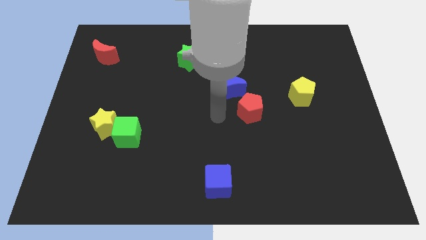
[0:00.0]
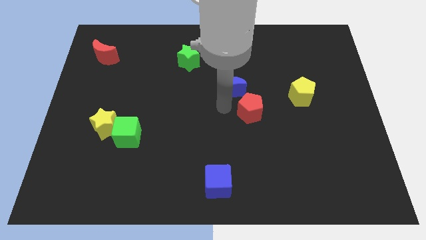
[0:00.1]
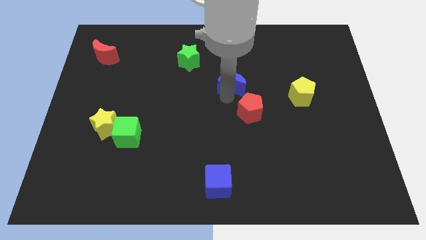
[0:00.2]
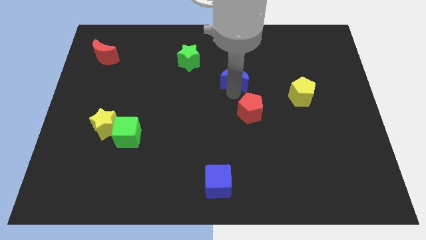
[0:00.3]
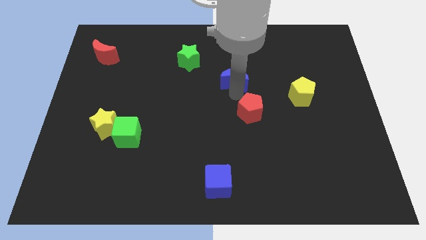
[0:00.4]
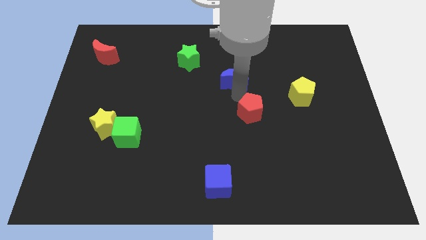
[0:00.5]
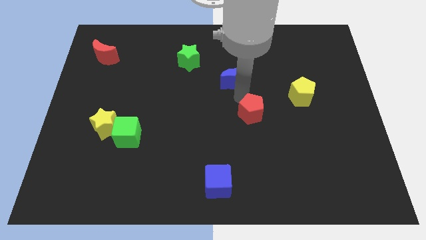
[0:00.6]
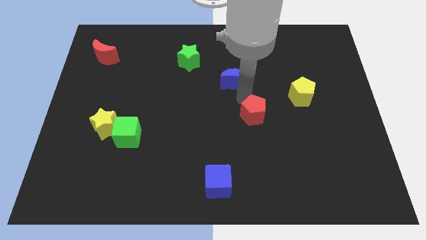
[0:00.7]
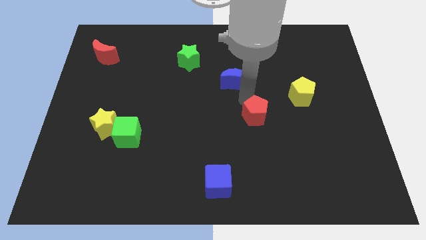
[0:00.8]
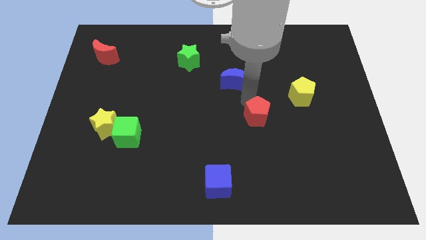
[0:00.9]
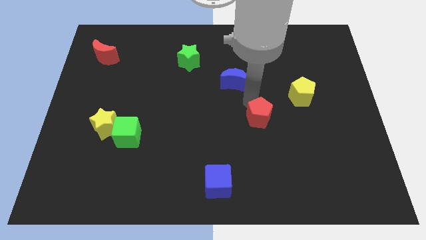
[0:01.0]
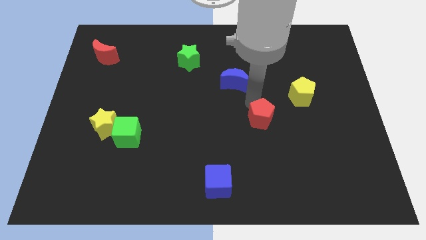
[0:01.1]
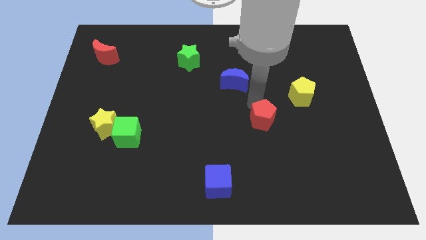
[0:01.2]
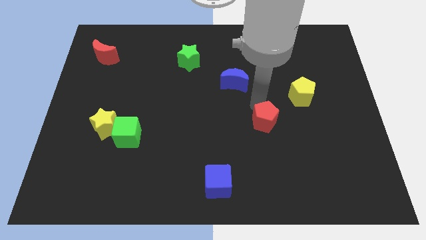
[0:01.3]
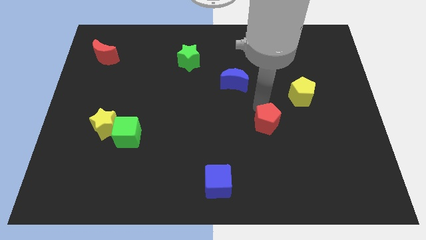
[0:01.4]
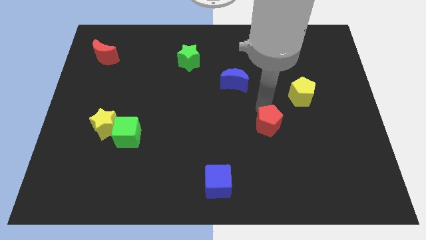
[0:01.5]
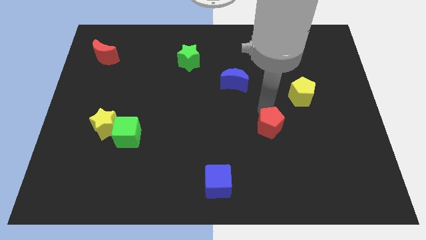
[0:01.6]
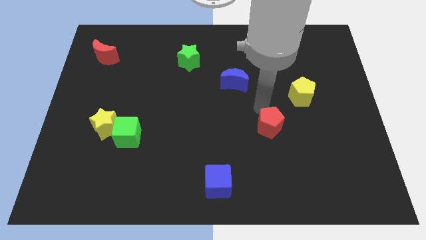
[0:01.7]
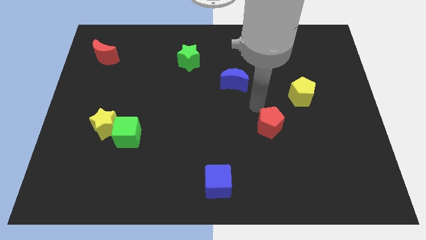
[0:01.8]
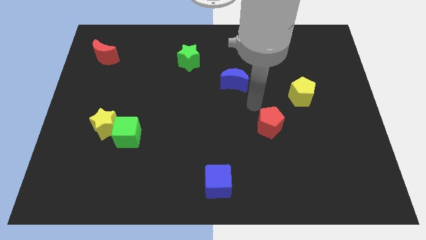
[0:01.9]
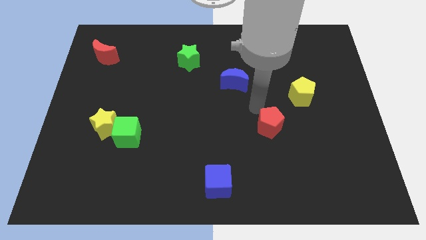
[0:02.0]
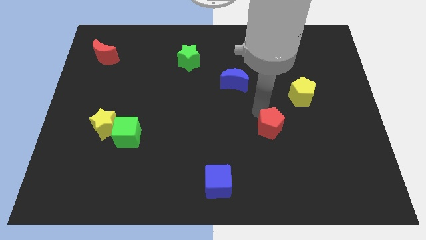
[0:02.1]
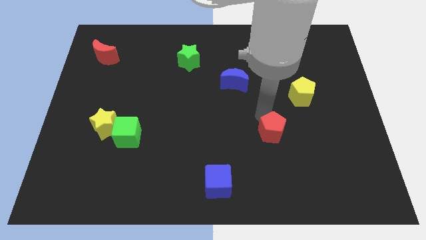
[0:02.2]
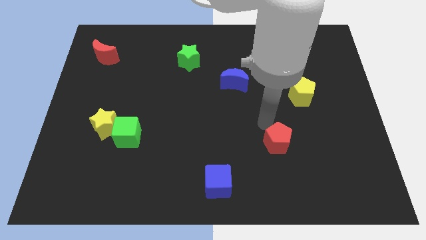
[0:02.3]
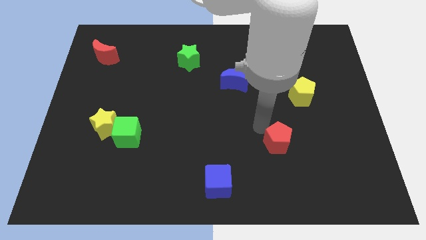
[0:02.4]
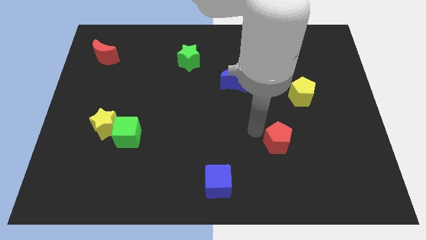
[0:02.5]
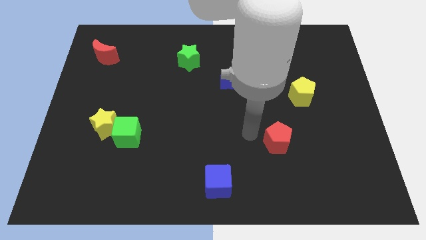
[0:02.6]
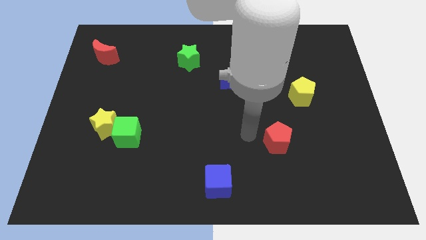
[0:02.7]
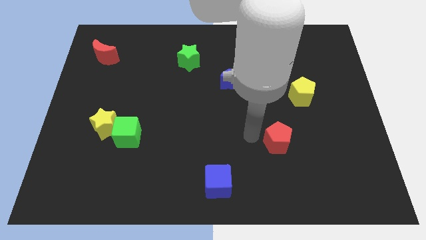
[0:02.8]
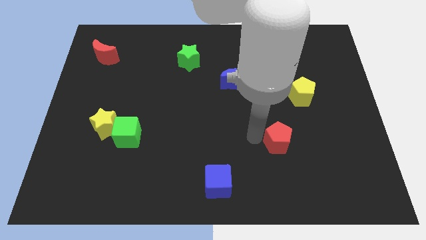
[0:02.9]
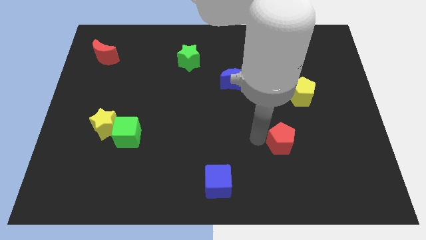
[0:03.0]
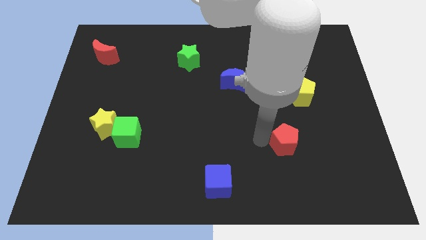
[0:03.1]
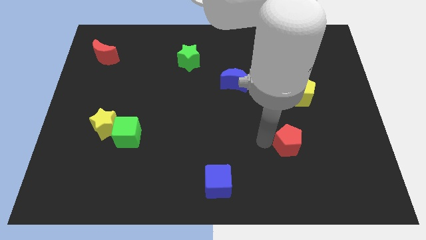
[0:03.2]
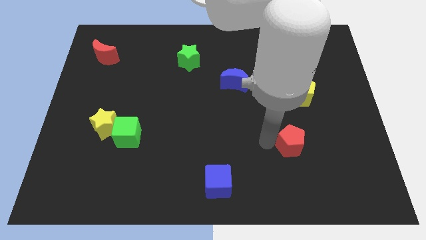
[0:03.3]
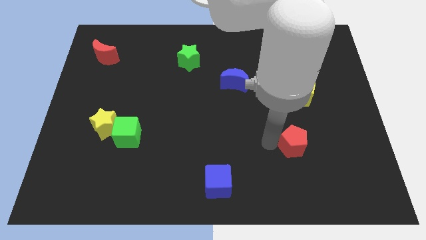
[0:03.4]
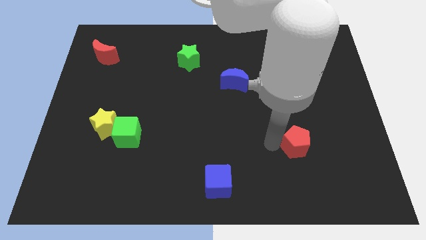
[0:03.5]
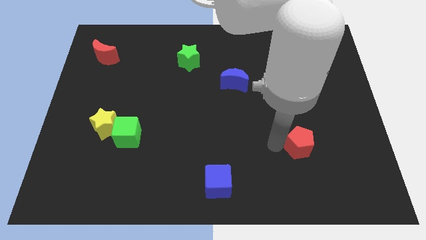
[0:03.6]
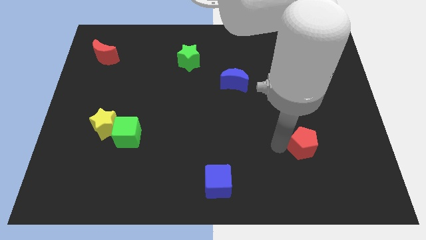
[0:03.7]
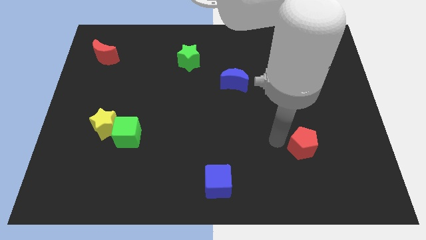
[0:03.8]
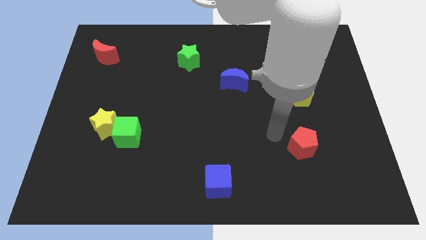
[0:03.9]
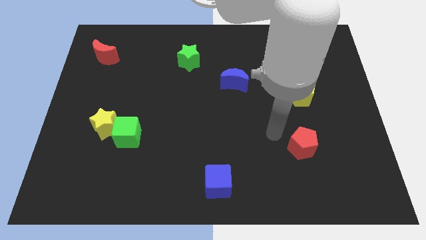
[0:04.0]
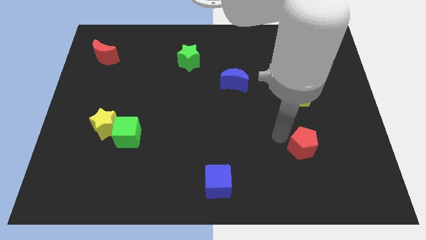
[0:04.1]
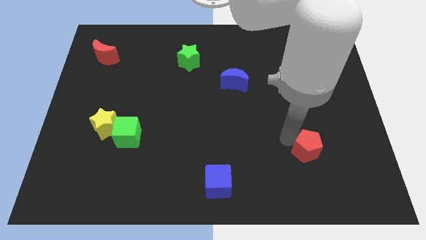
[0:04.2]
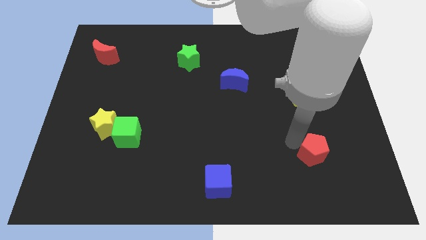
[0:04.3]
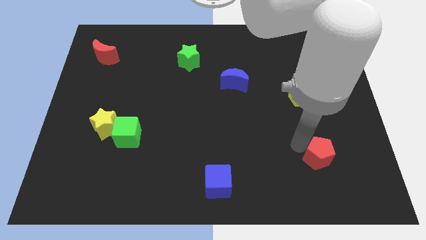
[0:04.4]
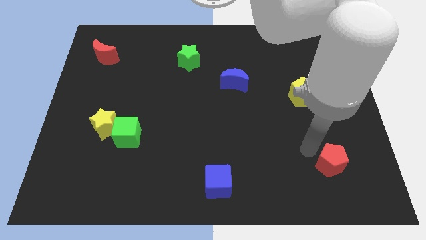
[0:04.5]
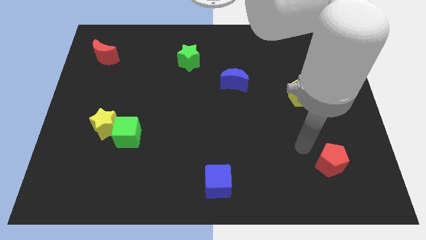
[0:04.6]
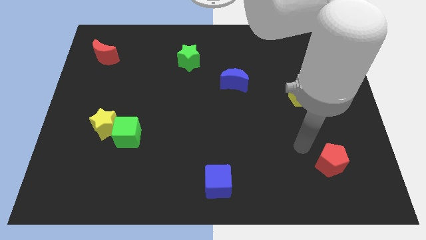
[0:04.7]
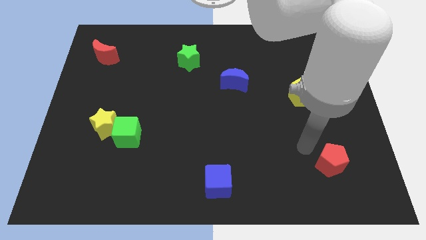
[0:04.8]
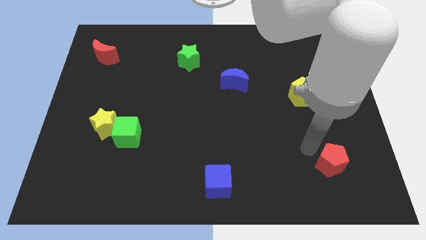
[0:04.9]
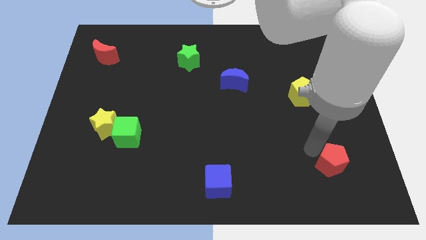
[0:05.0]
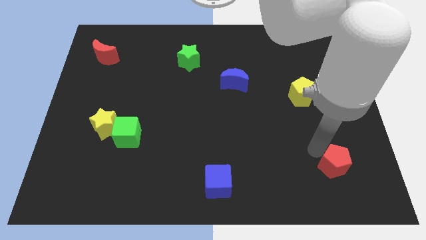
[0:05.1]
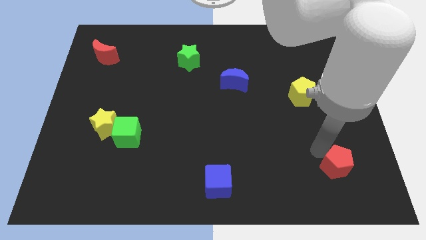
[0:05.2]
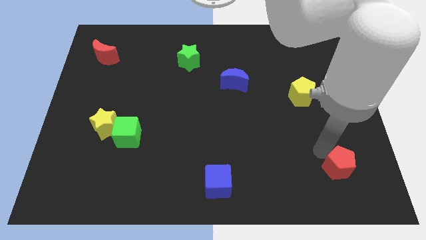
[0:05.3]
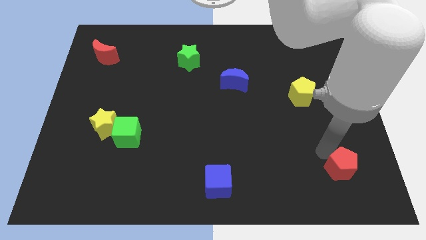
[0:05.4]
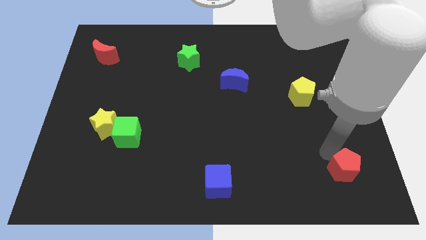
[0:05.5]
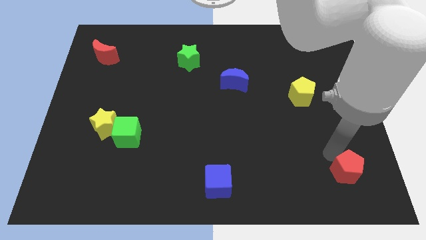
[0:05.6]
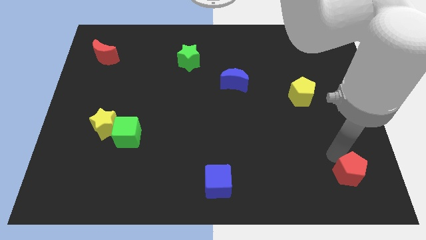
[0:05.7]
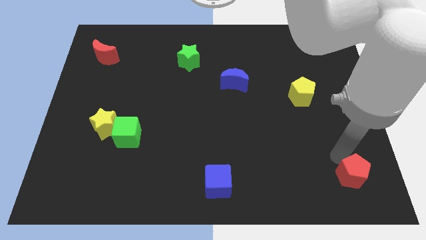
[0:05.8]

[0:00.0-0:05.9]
push the red pentagon to the bottom right of the board

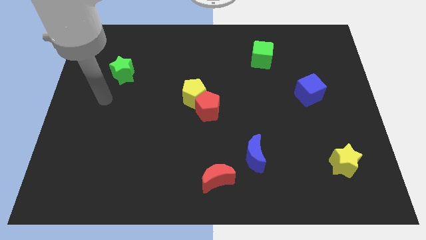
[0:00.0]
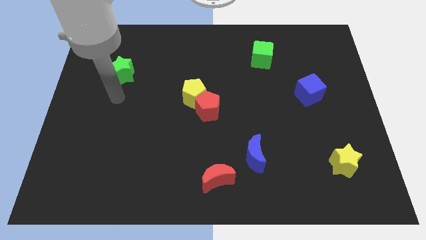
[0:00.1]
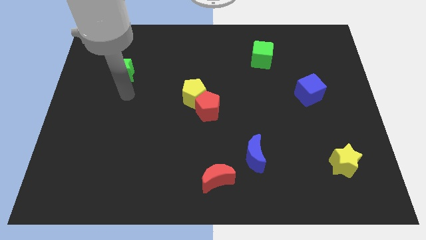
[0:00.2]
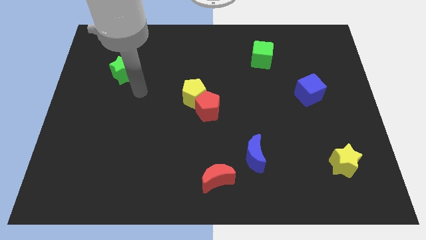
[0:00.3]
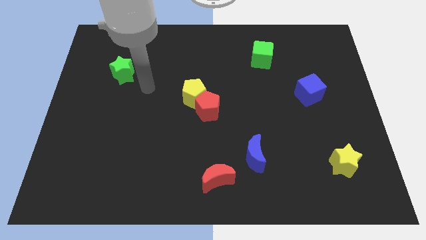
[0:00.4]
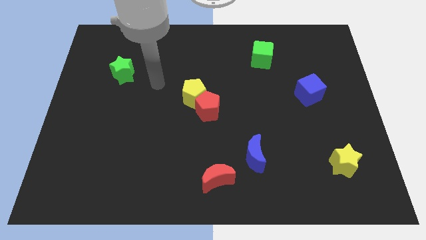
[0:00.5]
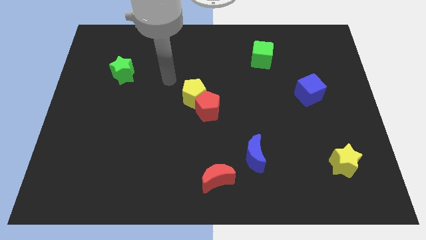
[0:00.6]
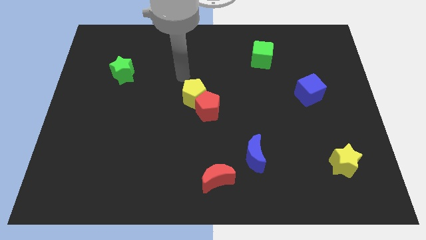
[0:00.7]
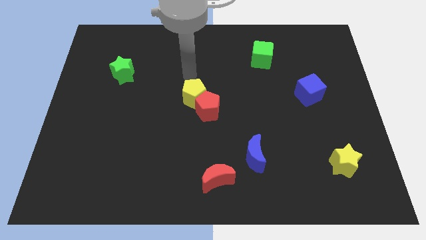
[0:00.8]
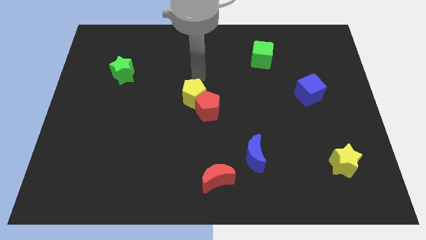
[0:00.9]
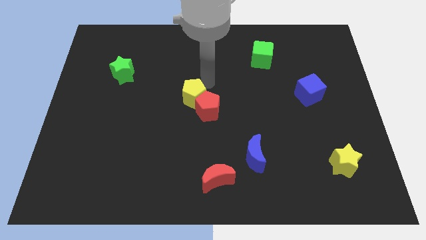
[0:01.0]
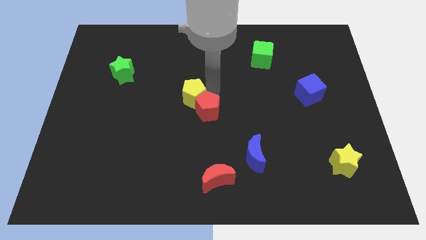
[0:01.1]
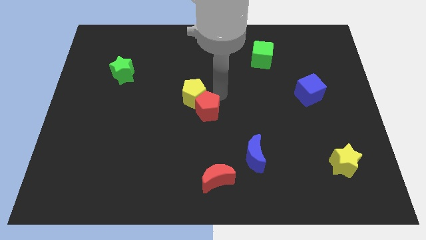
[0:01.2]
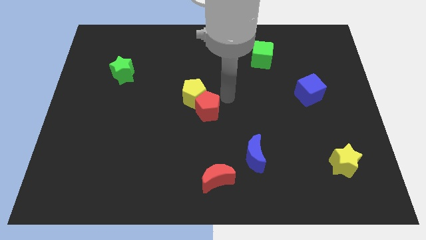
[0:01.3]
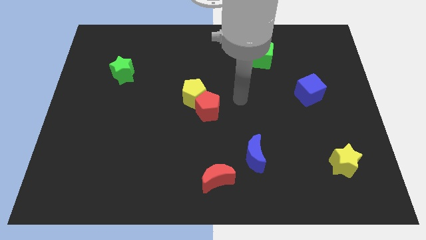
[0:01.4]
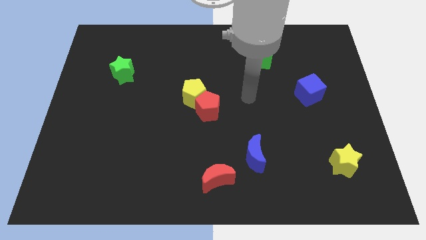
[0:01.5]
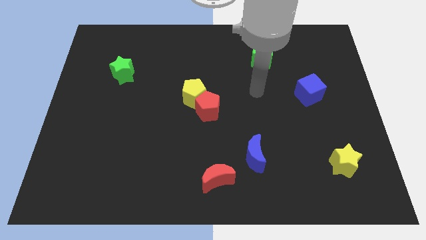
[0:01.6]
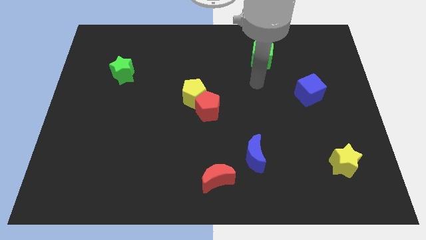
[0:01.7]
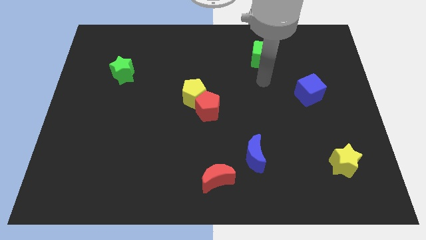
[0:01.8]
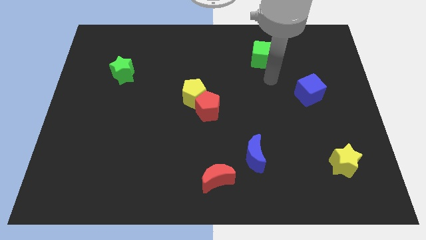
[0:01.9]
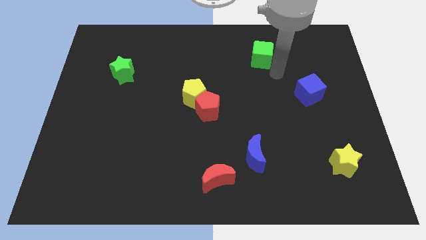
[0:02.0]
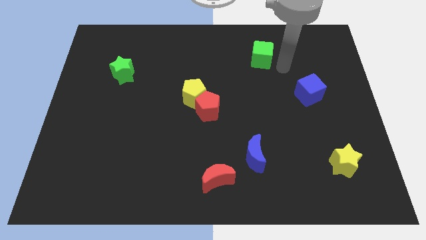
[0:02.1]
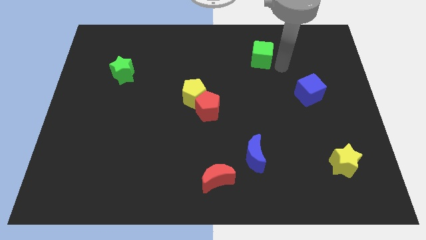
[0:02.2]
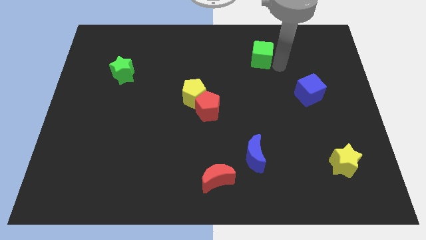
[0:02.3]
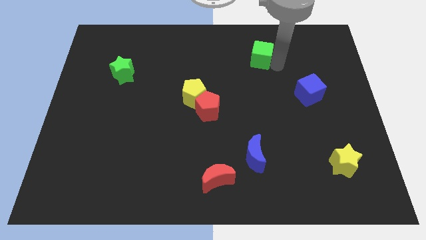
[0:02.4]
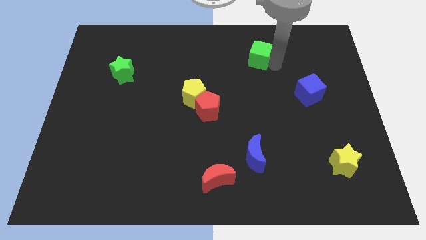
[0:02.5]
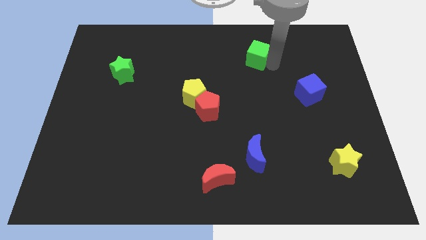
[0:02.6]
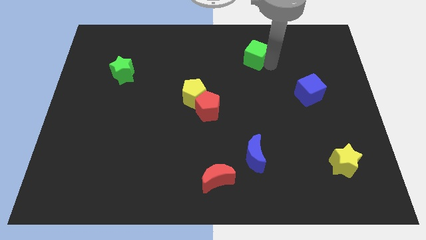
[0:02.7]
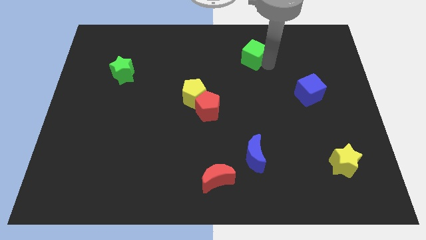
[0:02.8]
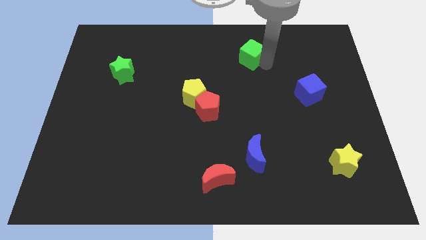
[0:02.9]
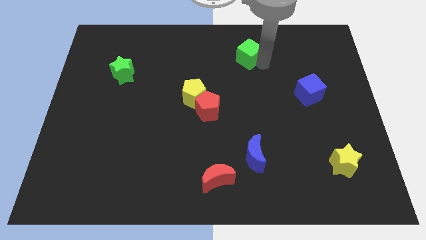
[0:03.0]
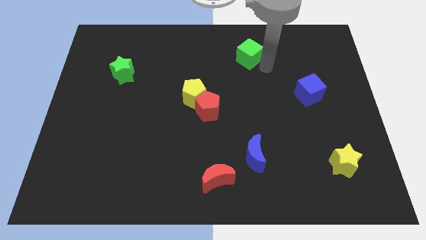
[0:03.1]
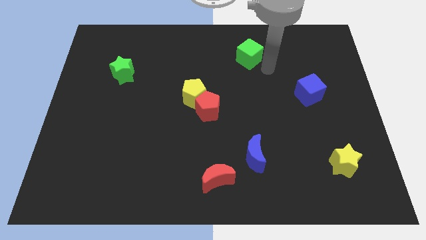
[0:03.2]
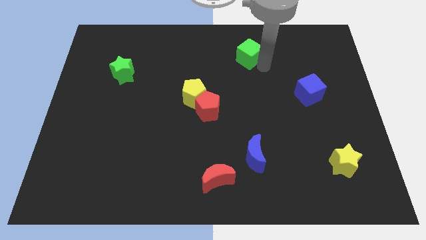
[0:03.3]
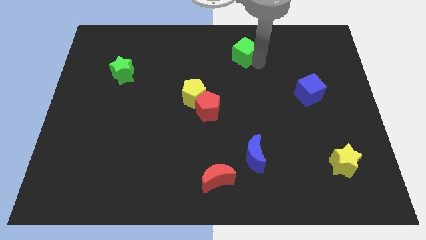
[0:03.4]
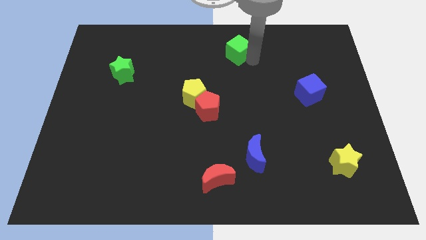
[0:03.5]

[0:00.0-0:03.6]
slide the green cube to the top
